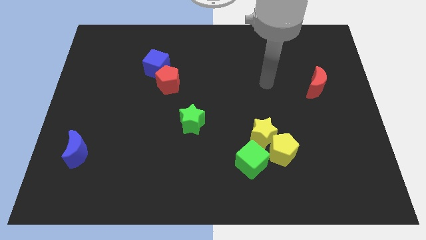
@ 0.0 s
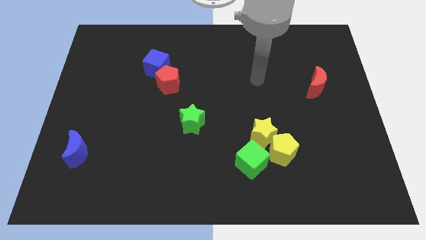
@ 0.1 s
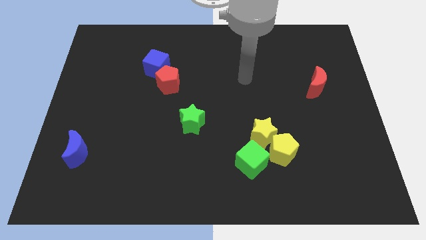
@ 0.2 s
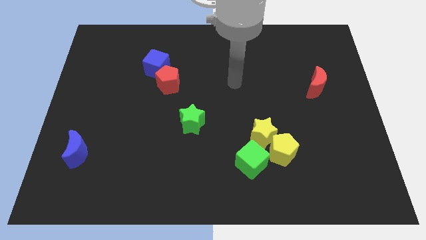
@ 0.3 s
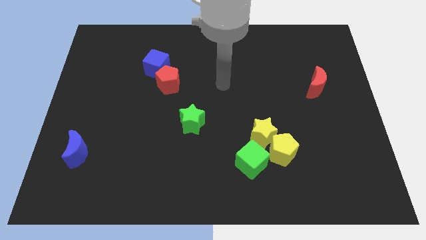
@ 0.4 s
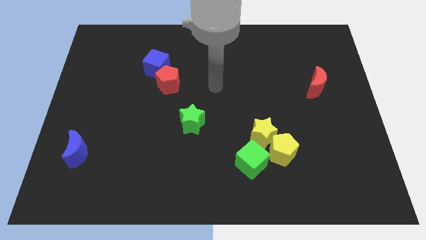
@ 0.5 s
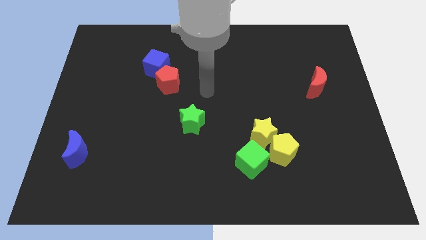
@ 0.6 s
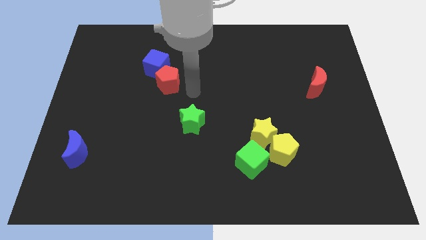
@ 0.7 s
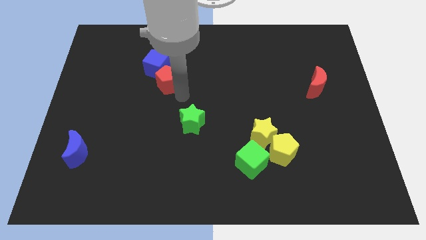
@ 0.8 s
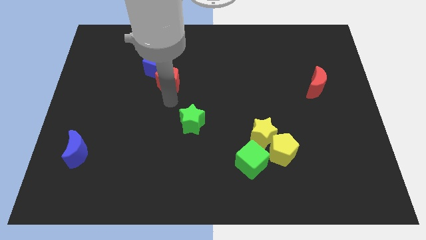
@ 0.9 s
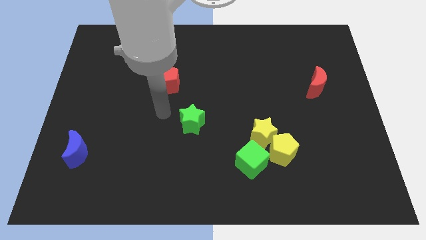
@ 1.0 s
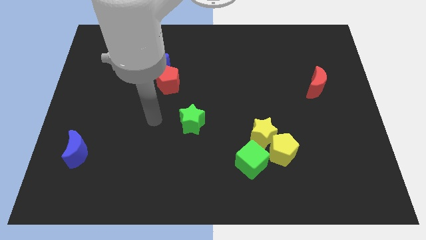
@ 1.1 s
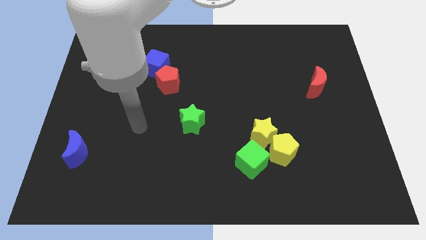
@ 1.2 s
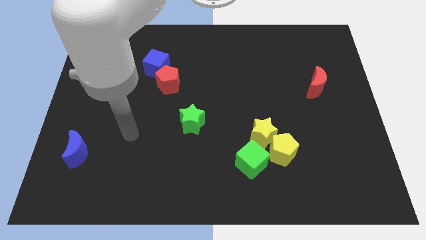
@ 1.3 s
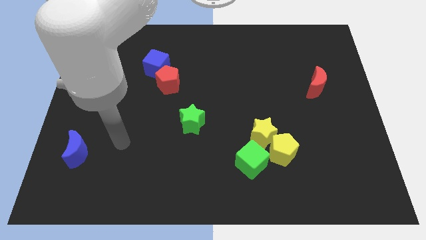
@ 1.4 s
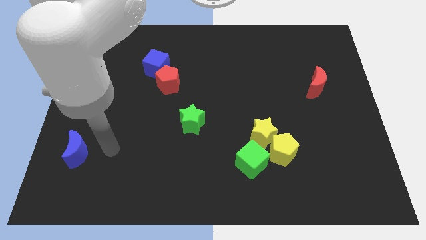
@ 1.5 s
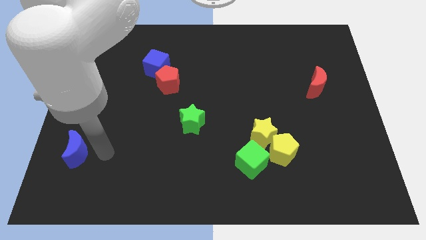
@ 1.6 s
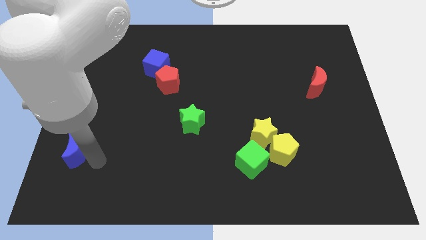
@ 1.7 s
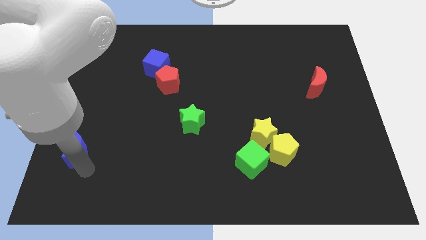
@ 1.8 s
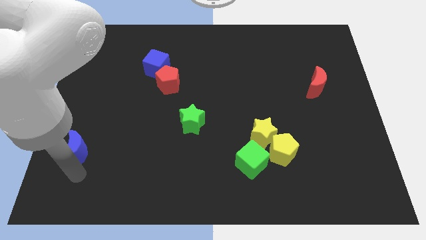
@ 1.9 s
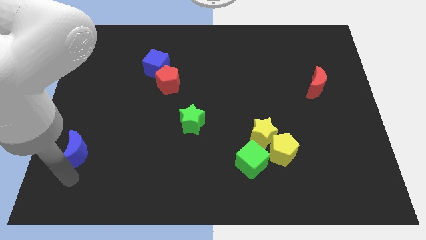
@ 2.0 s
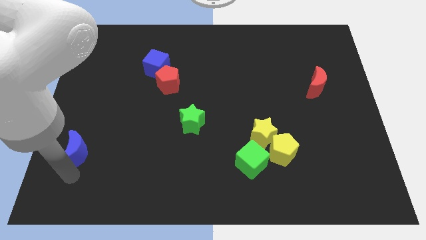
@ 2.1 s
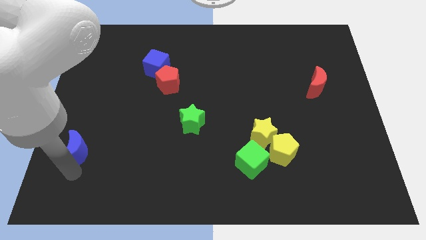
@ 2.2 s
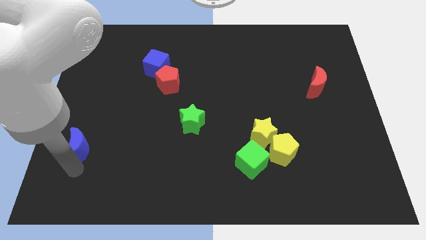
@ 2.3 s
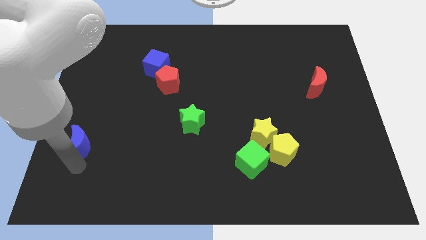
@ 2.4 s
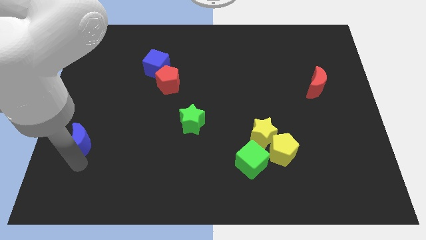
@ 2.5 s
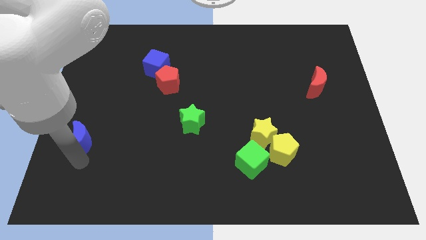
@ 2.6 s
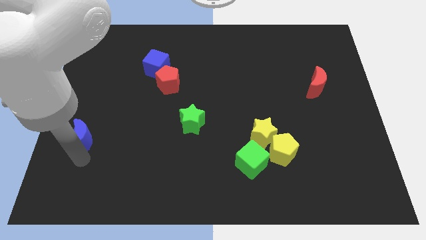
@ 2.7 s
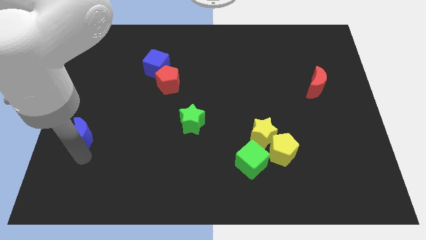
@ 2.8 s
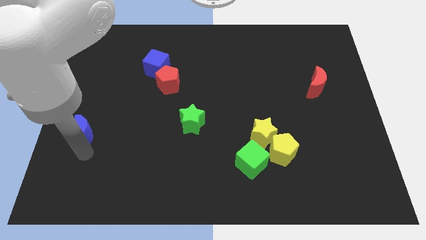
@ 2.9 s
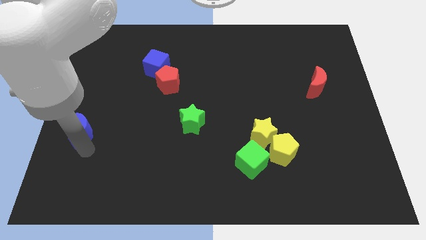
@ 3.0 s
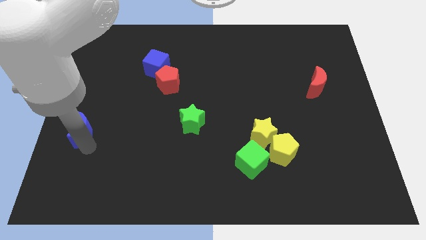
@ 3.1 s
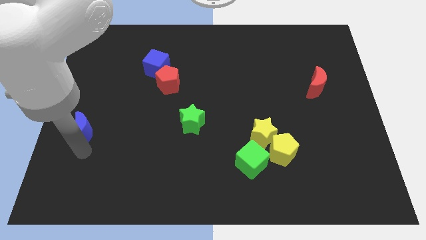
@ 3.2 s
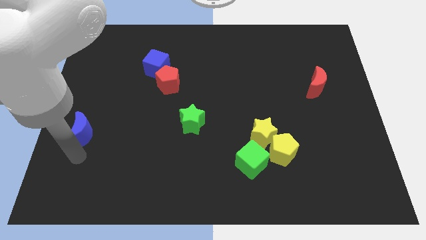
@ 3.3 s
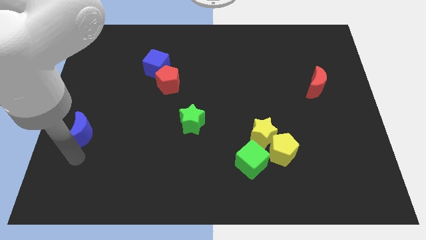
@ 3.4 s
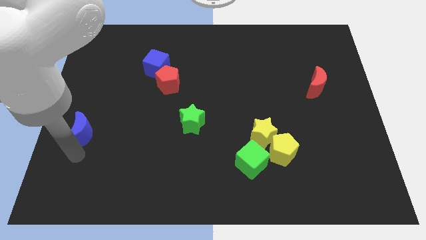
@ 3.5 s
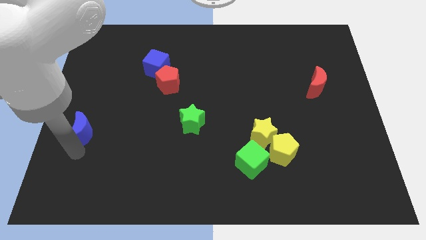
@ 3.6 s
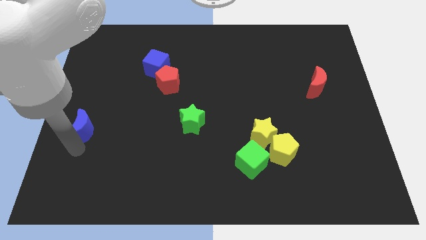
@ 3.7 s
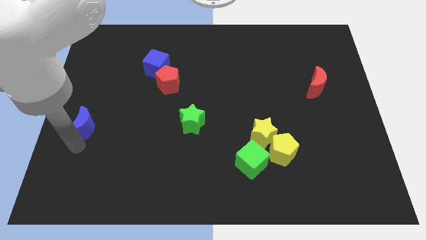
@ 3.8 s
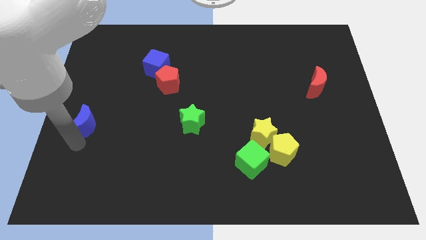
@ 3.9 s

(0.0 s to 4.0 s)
move the blue moon upwards a little

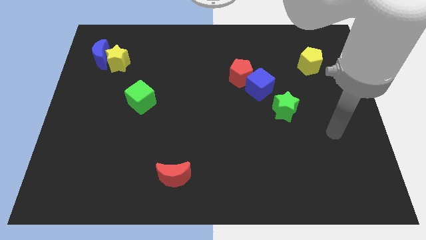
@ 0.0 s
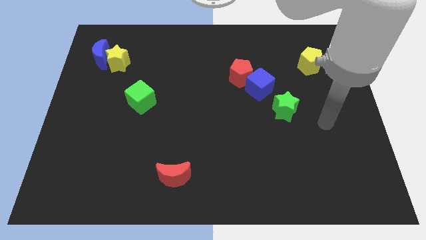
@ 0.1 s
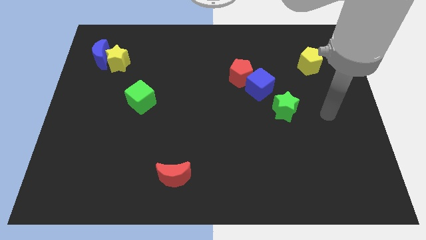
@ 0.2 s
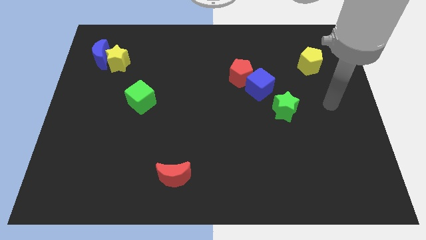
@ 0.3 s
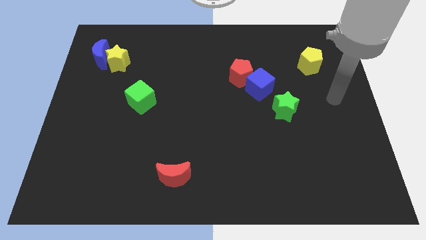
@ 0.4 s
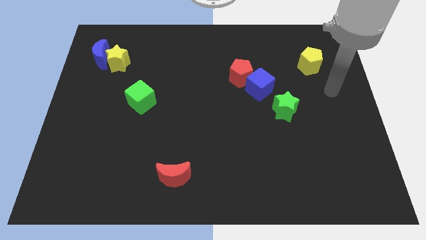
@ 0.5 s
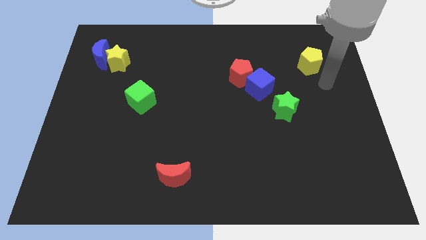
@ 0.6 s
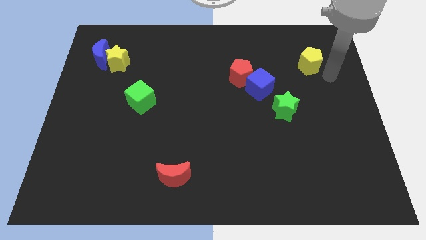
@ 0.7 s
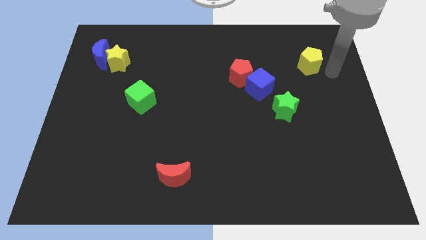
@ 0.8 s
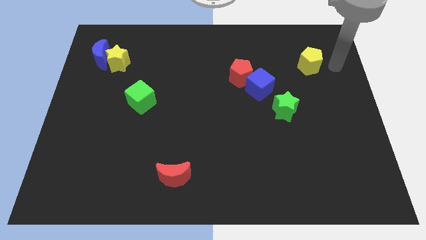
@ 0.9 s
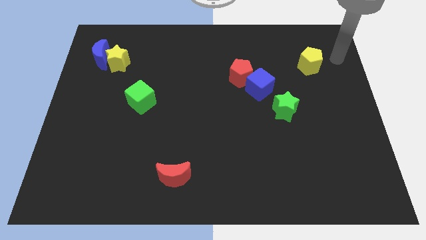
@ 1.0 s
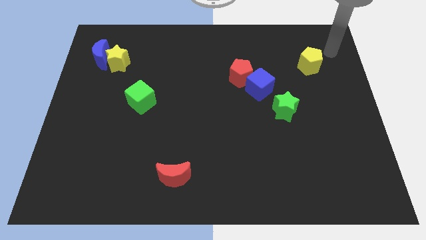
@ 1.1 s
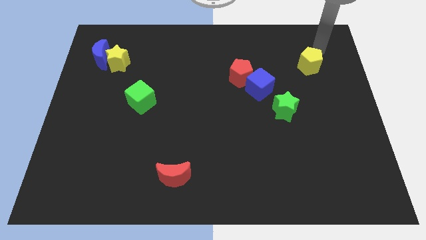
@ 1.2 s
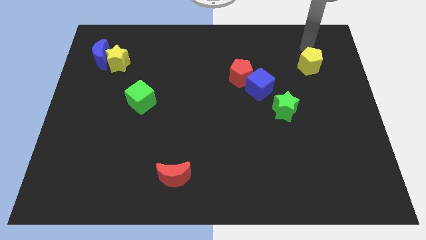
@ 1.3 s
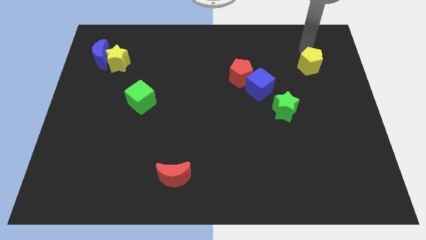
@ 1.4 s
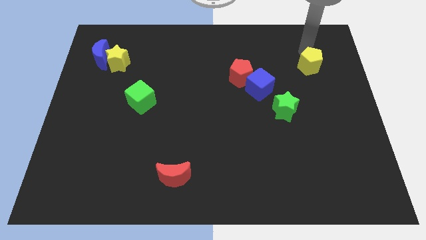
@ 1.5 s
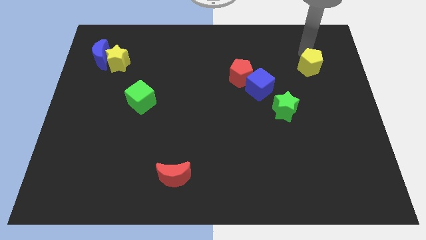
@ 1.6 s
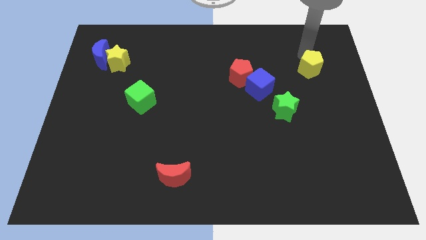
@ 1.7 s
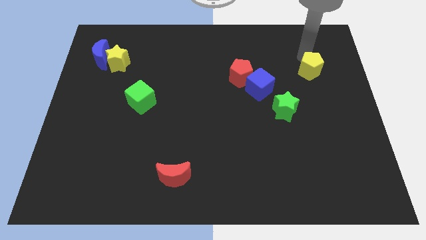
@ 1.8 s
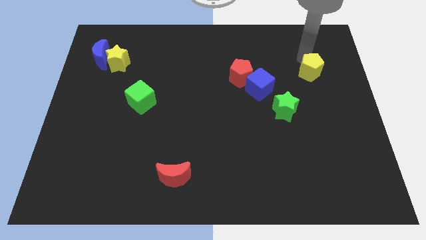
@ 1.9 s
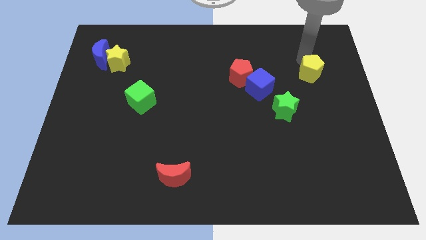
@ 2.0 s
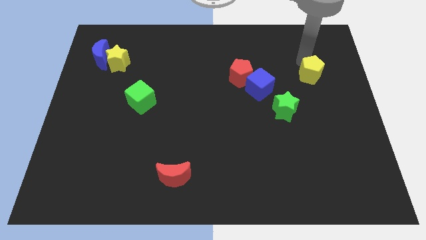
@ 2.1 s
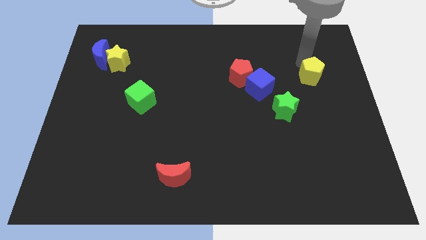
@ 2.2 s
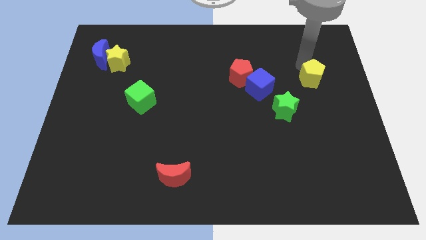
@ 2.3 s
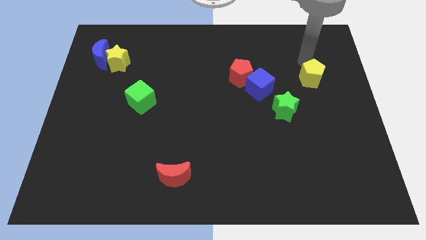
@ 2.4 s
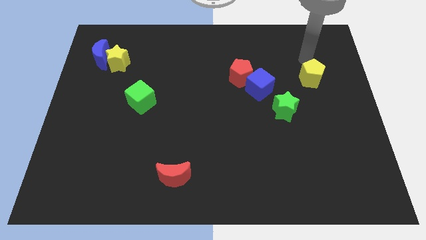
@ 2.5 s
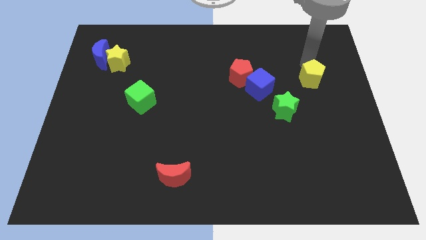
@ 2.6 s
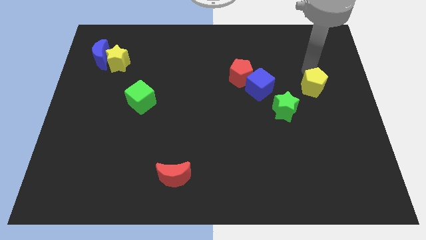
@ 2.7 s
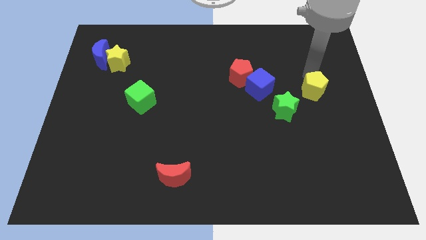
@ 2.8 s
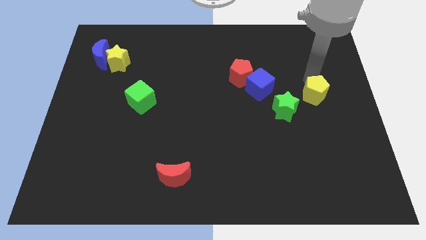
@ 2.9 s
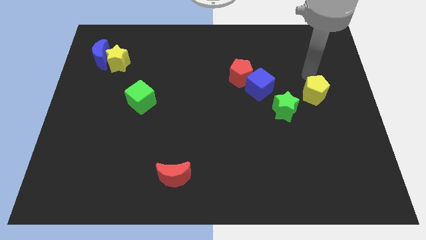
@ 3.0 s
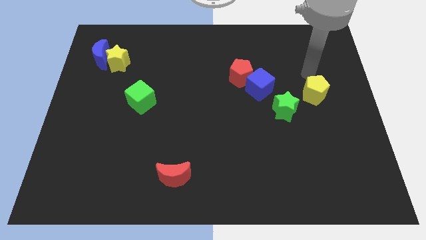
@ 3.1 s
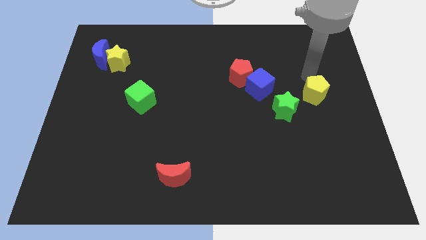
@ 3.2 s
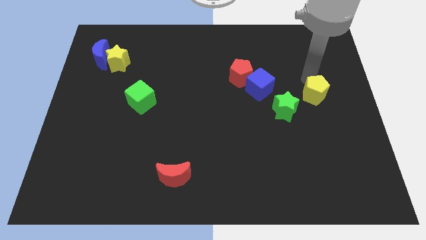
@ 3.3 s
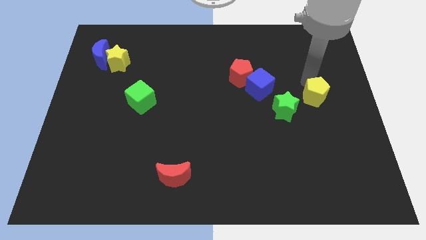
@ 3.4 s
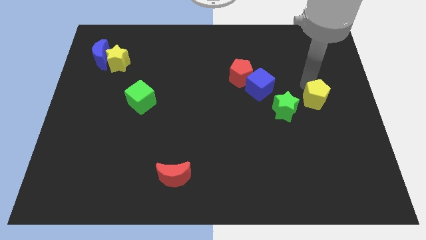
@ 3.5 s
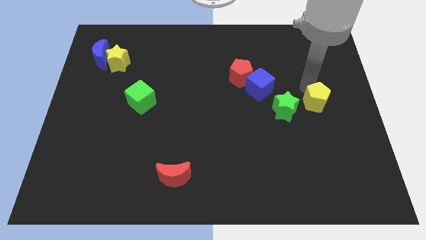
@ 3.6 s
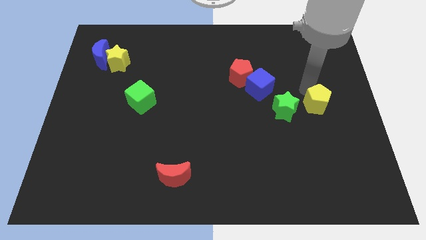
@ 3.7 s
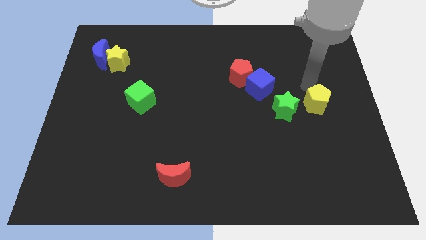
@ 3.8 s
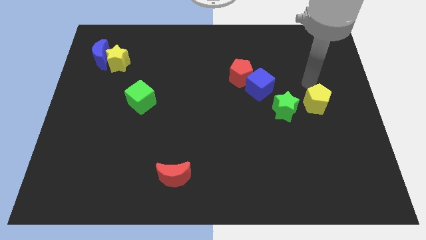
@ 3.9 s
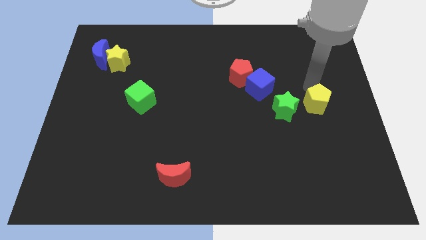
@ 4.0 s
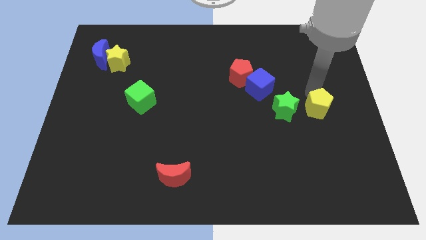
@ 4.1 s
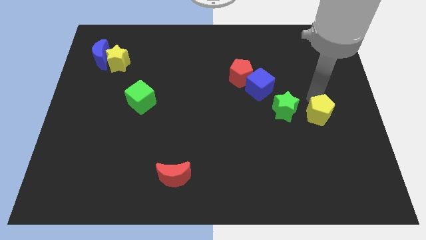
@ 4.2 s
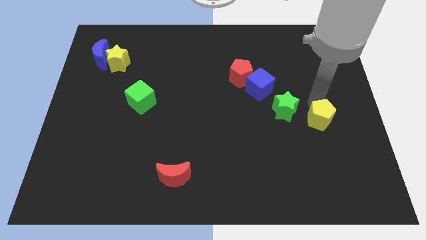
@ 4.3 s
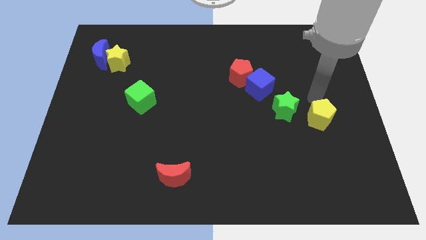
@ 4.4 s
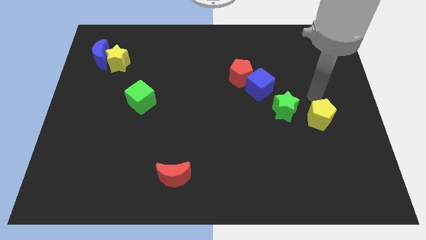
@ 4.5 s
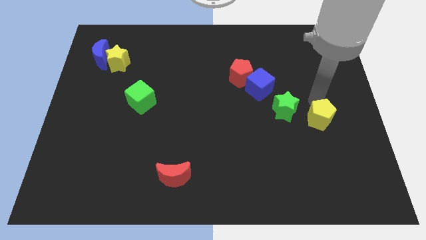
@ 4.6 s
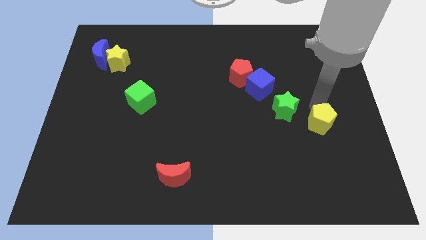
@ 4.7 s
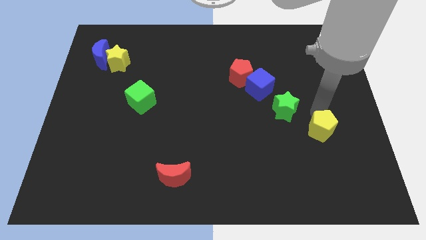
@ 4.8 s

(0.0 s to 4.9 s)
slide the yellow pentagon down
